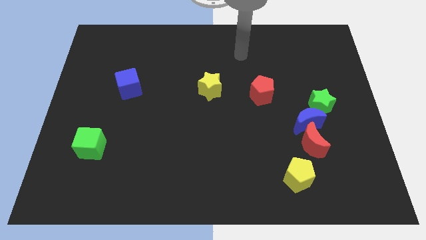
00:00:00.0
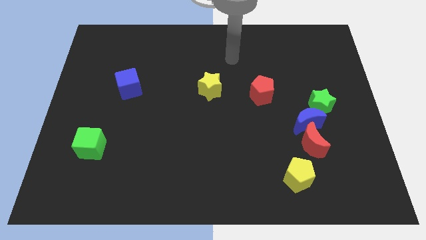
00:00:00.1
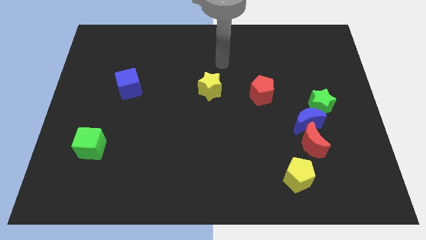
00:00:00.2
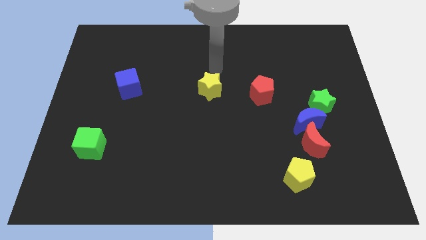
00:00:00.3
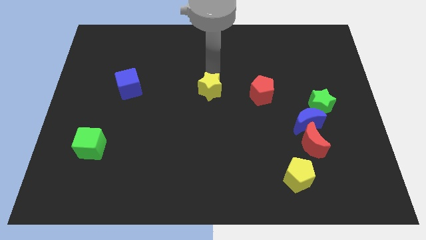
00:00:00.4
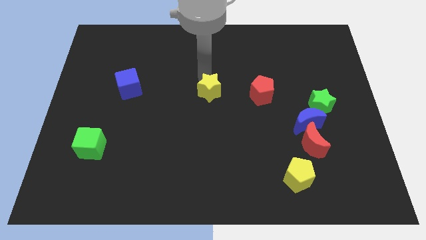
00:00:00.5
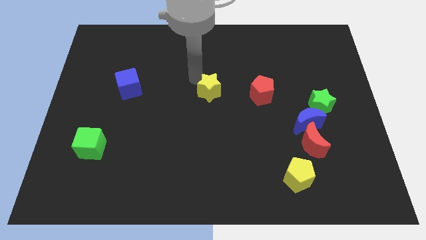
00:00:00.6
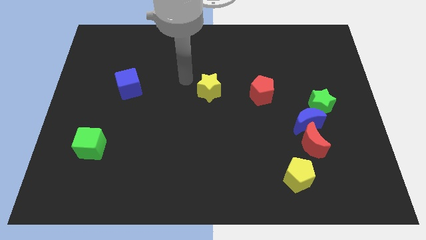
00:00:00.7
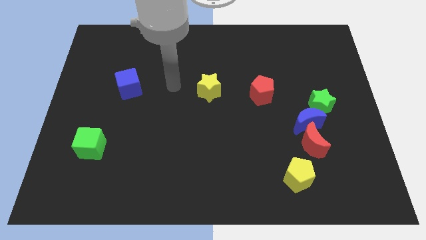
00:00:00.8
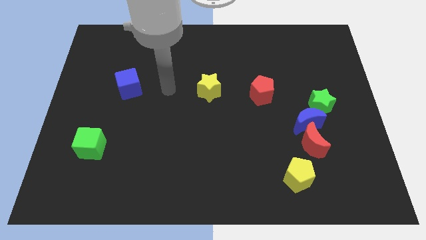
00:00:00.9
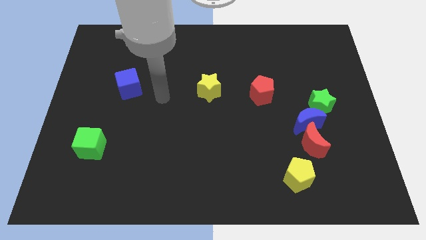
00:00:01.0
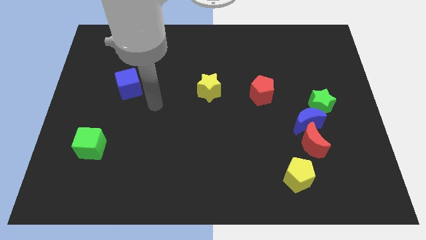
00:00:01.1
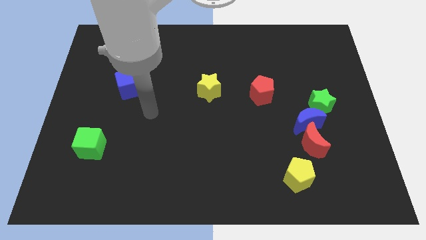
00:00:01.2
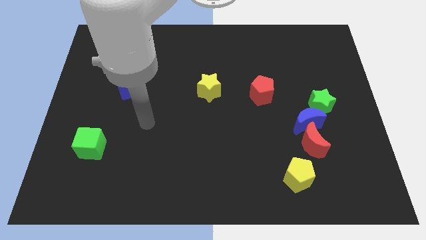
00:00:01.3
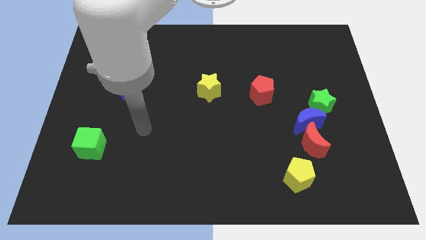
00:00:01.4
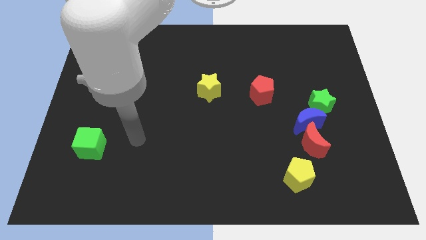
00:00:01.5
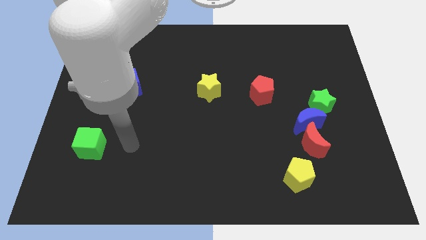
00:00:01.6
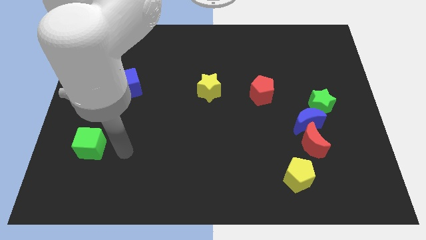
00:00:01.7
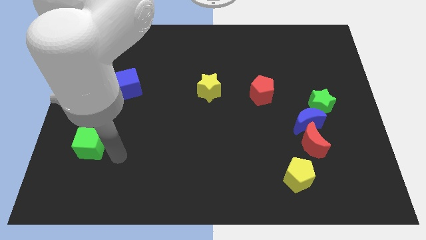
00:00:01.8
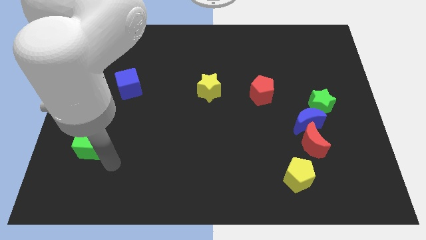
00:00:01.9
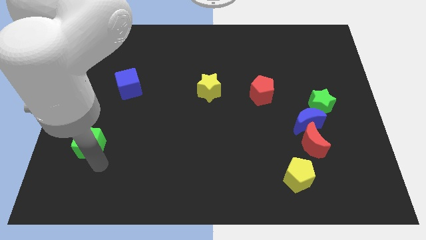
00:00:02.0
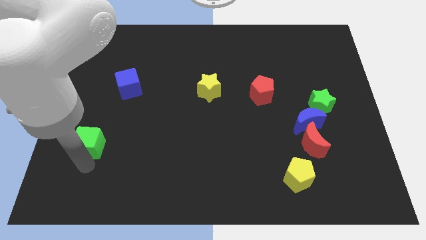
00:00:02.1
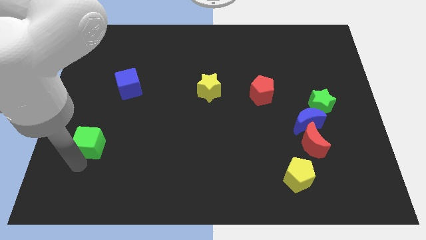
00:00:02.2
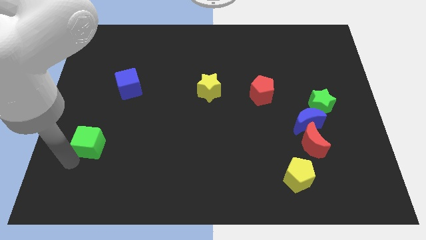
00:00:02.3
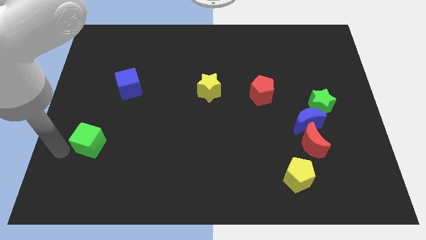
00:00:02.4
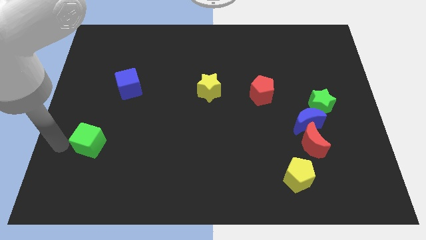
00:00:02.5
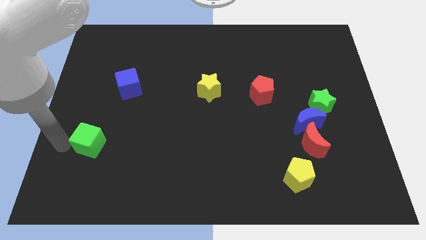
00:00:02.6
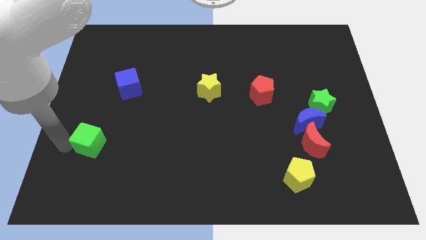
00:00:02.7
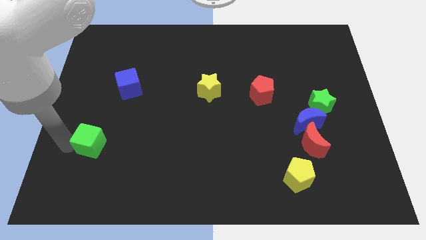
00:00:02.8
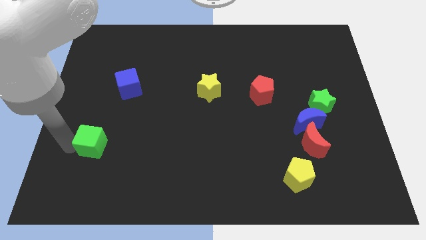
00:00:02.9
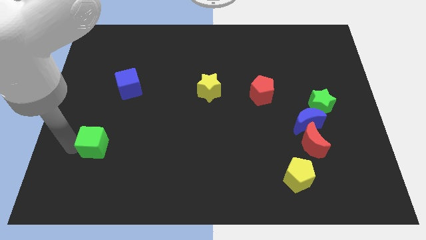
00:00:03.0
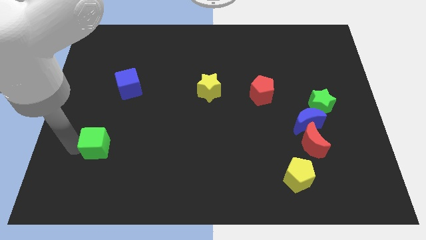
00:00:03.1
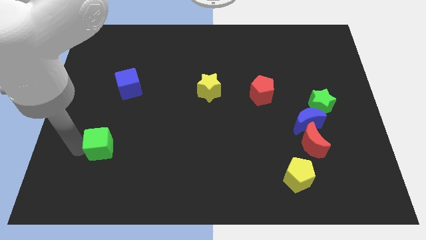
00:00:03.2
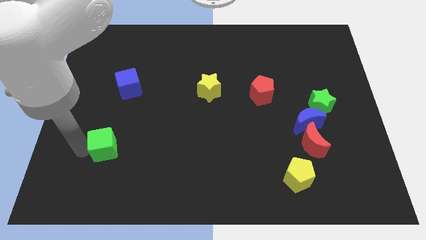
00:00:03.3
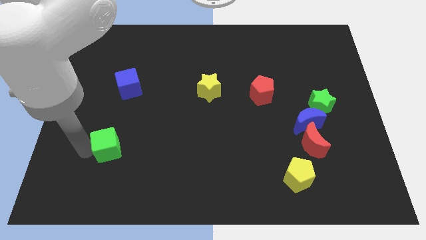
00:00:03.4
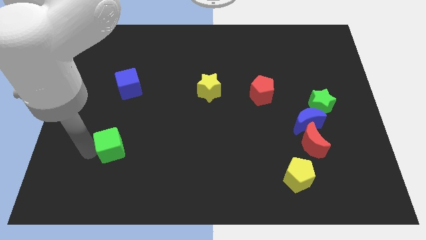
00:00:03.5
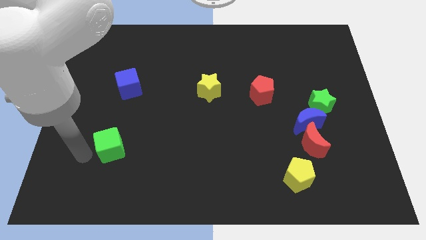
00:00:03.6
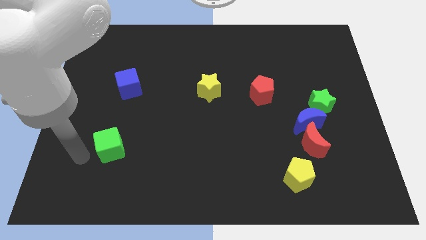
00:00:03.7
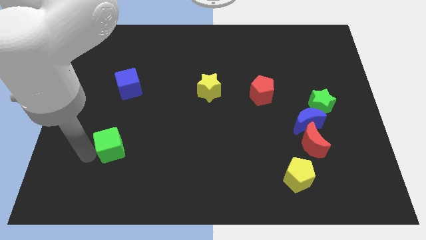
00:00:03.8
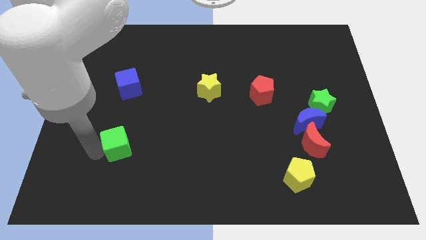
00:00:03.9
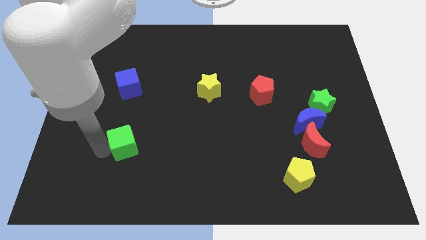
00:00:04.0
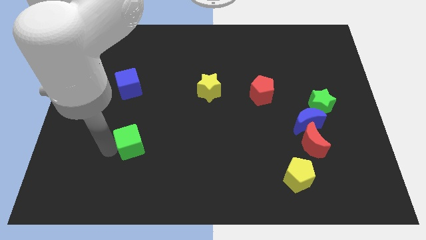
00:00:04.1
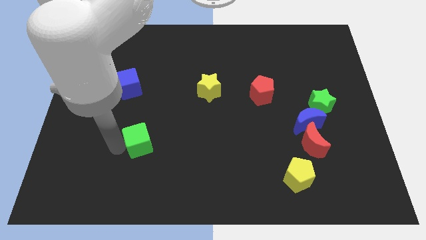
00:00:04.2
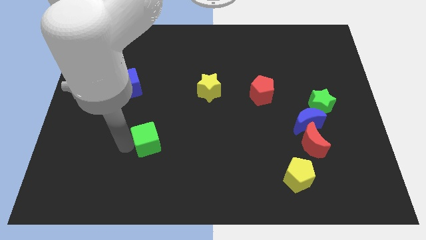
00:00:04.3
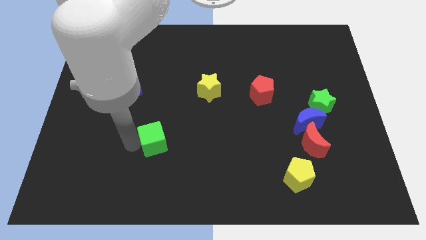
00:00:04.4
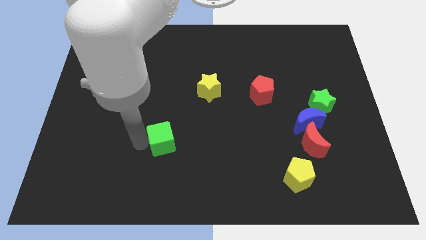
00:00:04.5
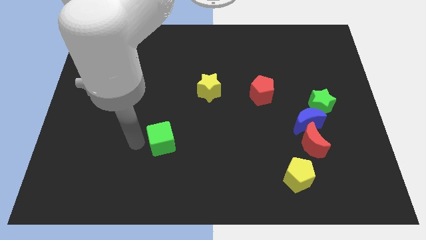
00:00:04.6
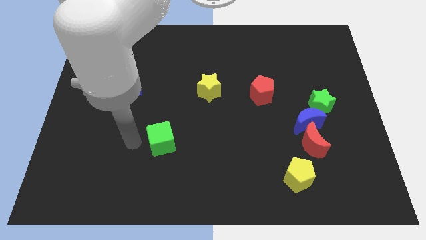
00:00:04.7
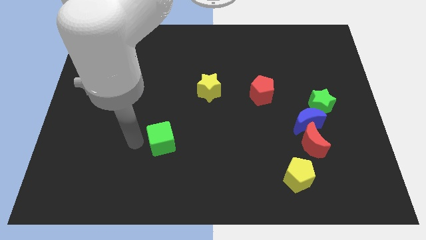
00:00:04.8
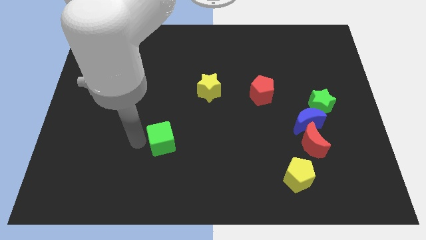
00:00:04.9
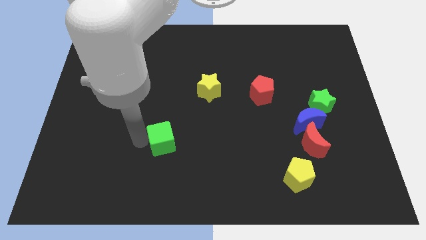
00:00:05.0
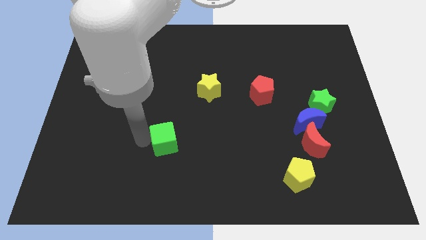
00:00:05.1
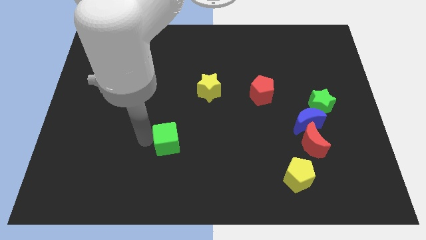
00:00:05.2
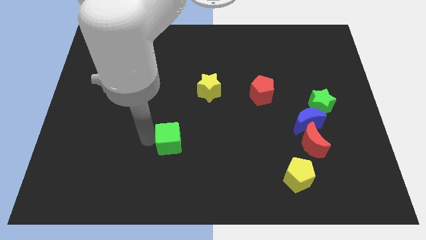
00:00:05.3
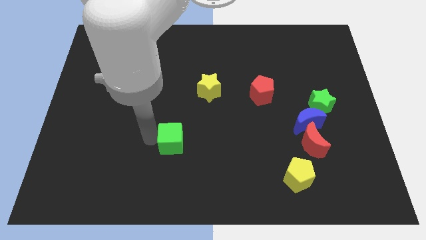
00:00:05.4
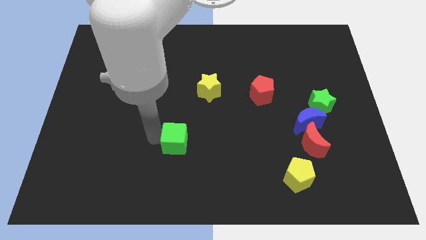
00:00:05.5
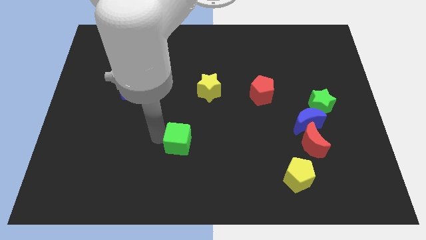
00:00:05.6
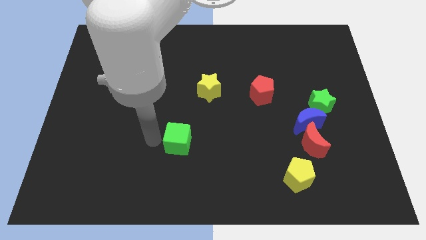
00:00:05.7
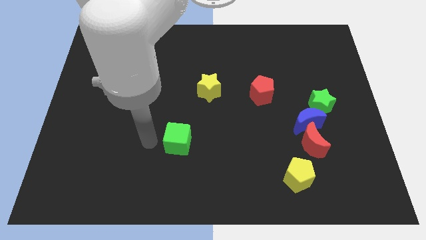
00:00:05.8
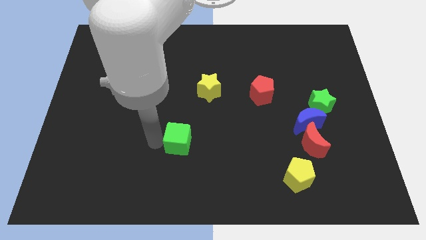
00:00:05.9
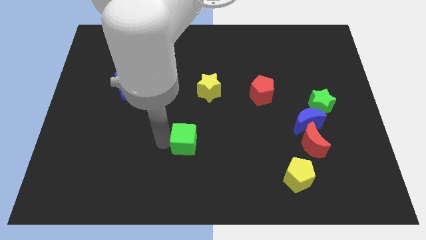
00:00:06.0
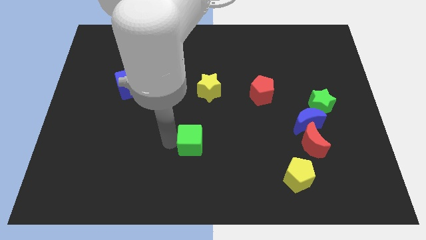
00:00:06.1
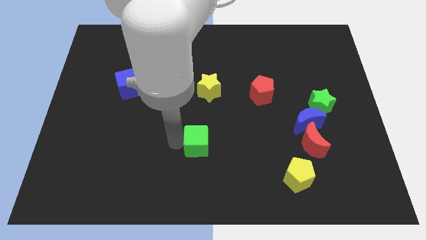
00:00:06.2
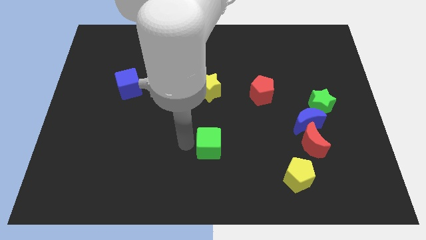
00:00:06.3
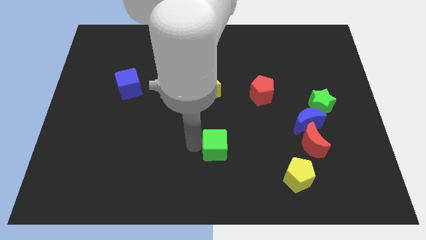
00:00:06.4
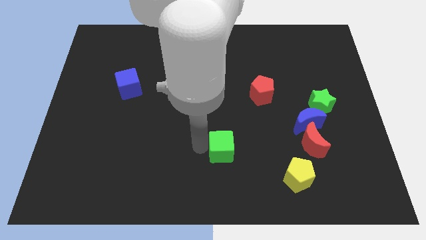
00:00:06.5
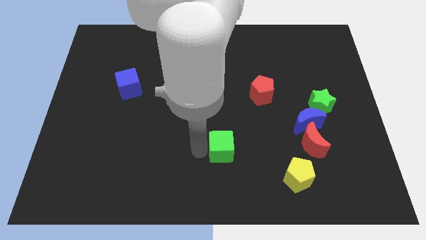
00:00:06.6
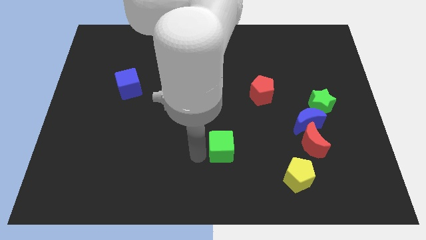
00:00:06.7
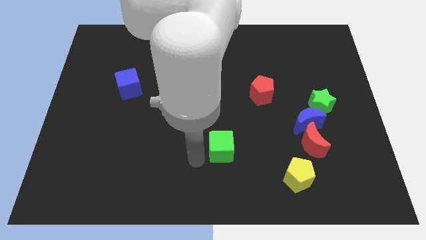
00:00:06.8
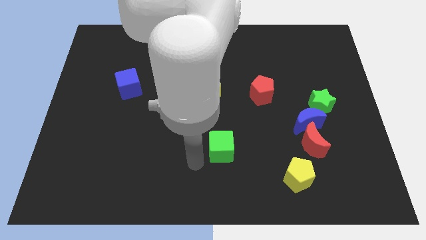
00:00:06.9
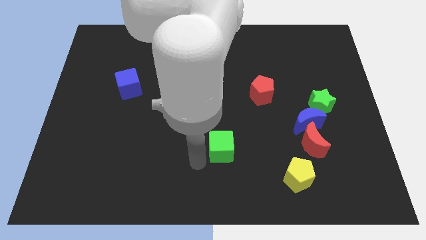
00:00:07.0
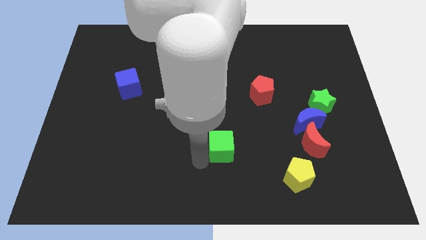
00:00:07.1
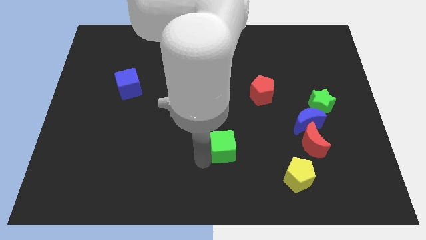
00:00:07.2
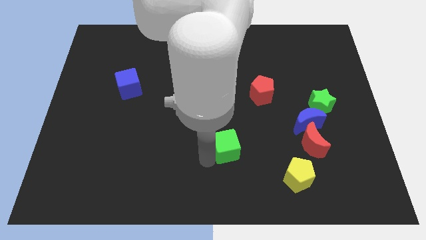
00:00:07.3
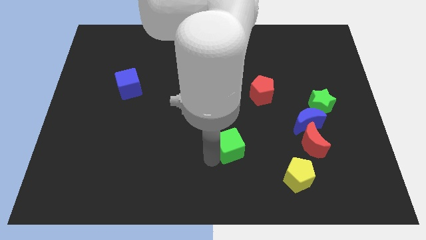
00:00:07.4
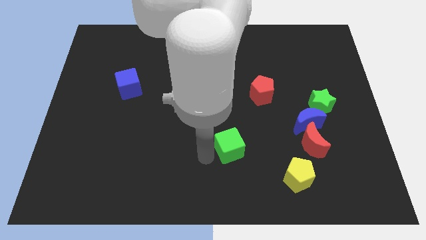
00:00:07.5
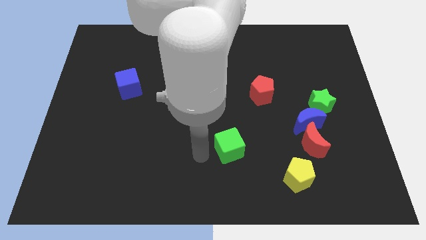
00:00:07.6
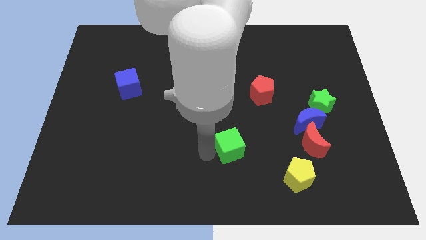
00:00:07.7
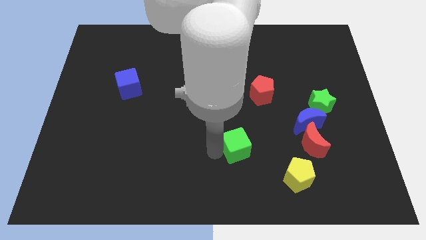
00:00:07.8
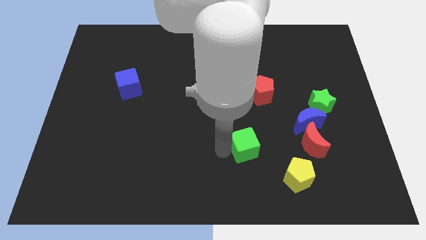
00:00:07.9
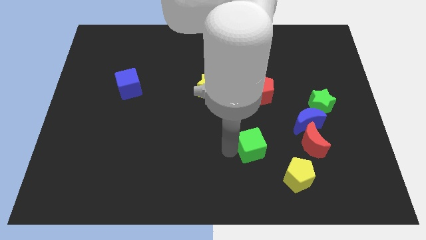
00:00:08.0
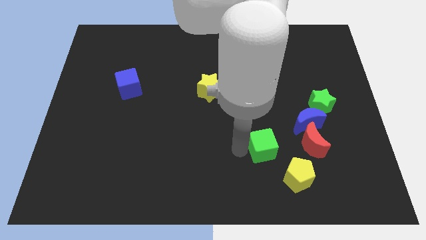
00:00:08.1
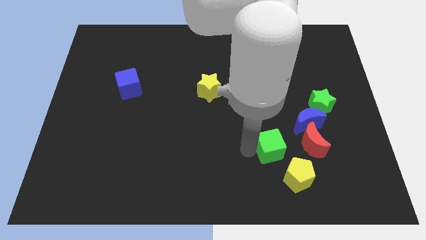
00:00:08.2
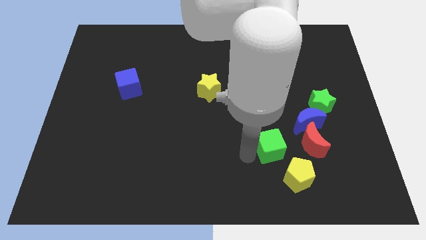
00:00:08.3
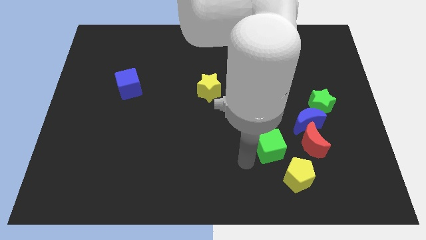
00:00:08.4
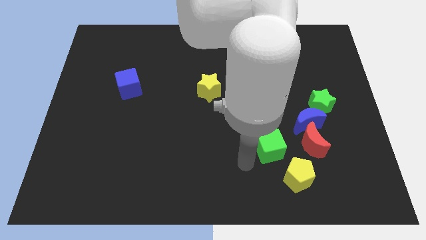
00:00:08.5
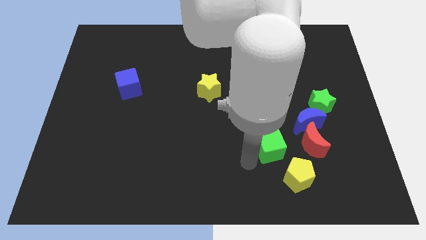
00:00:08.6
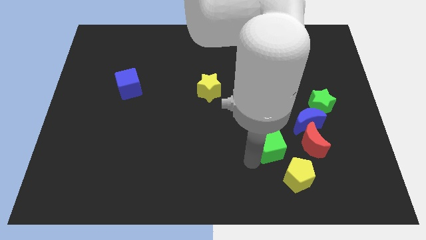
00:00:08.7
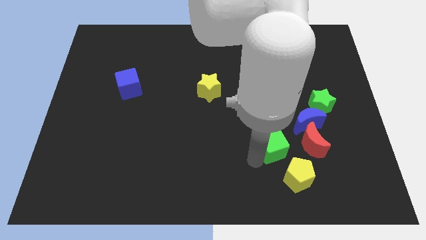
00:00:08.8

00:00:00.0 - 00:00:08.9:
put the green cube to the top of the yellow pentagon
